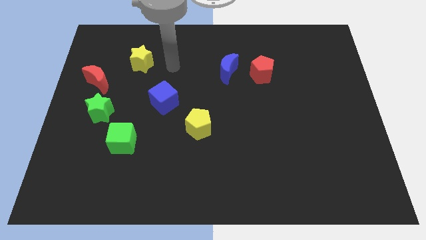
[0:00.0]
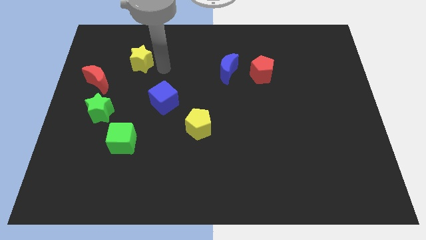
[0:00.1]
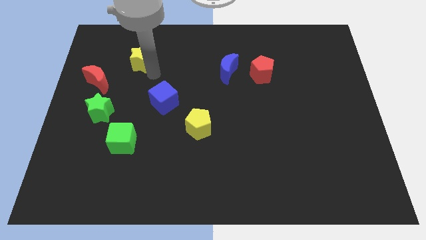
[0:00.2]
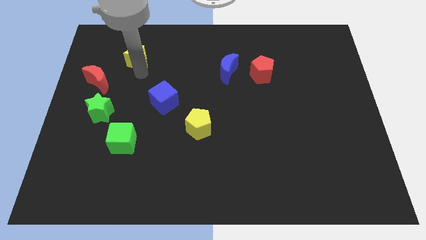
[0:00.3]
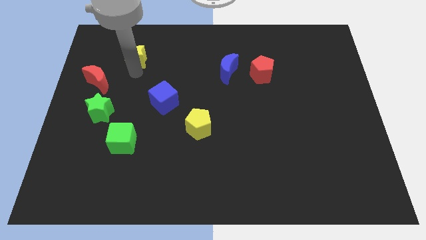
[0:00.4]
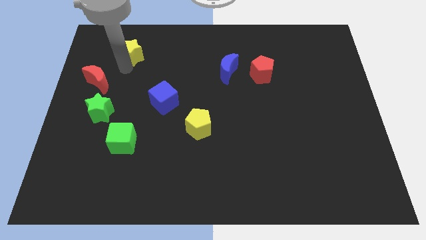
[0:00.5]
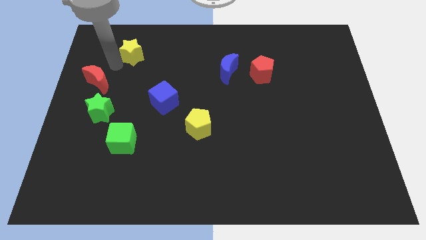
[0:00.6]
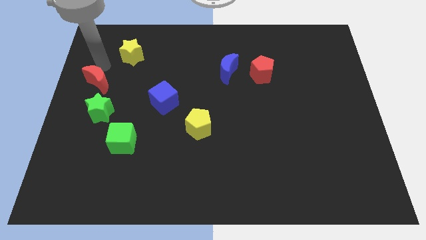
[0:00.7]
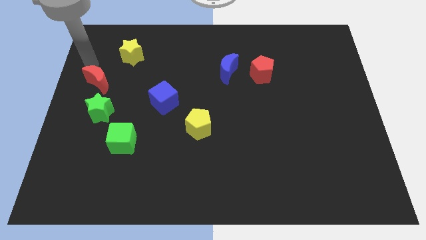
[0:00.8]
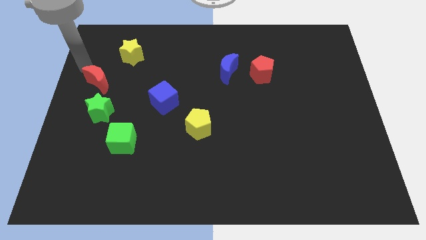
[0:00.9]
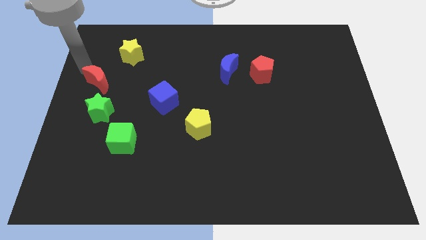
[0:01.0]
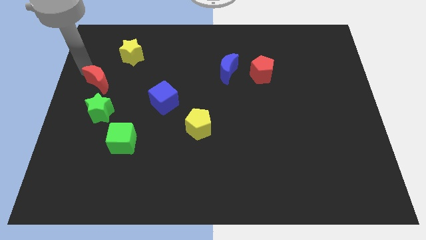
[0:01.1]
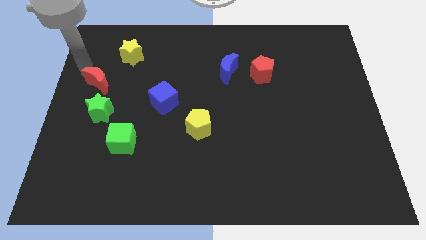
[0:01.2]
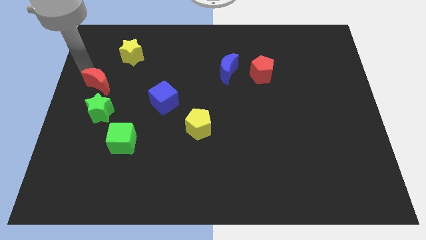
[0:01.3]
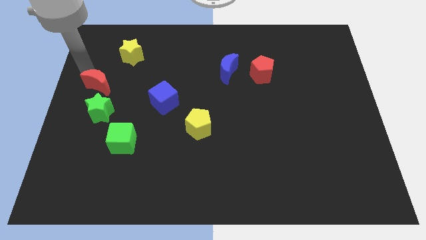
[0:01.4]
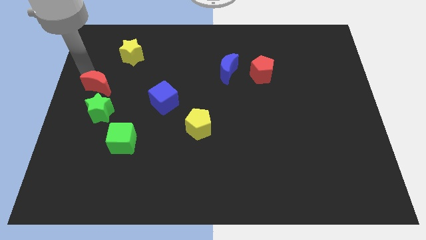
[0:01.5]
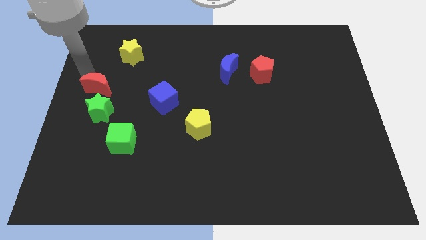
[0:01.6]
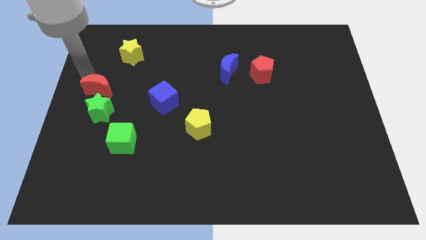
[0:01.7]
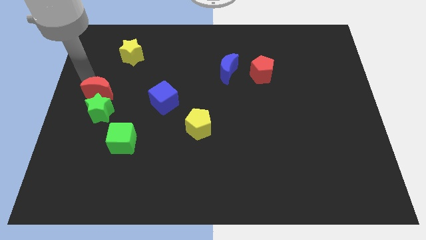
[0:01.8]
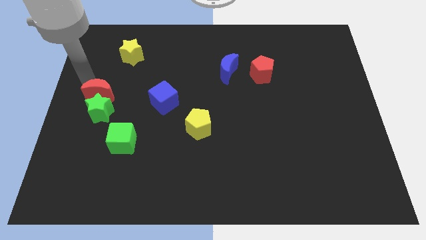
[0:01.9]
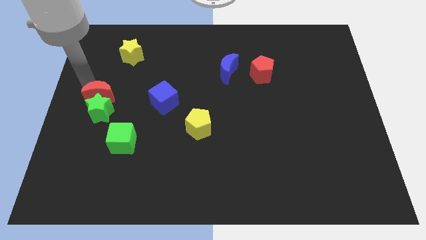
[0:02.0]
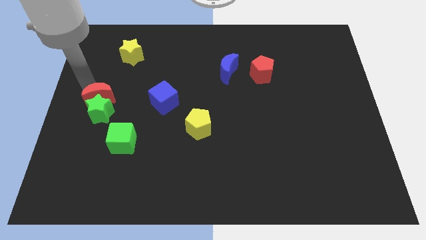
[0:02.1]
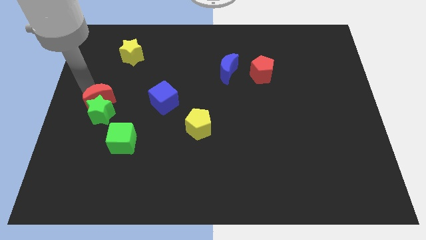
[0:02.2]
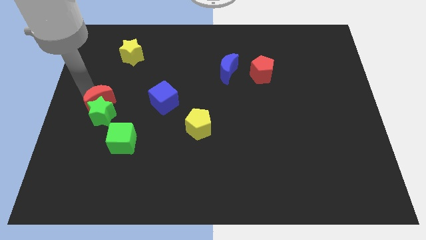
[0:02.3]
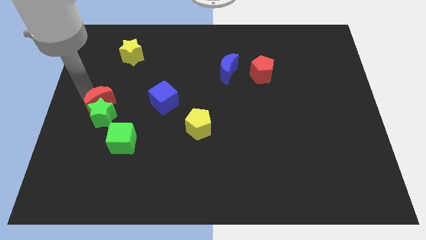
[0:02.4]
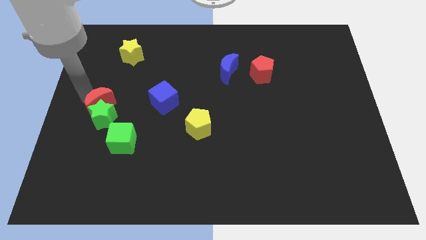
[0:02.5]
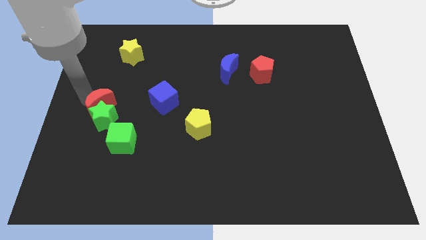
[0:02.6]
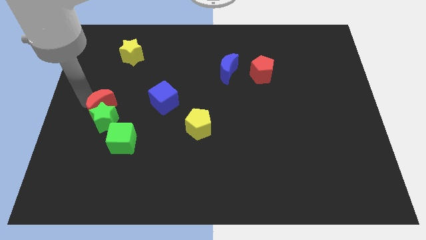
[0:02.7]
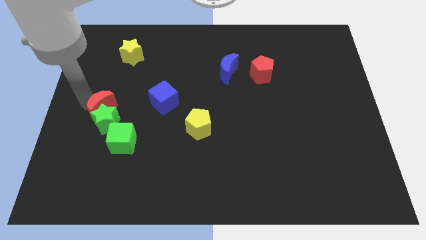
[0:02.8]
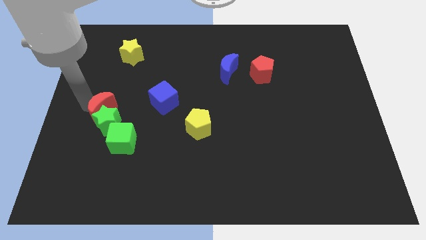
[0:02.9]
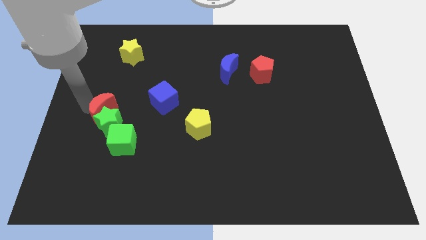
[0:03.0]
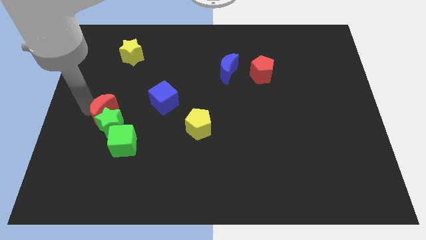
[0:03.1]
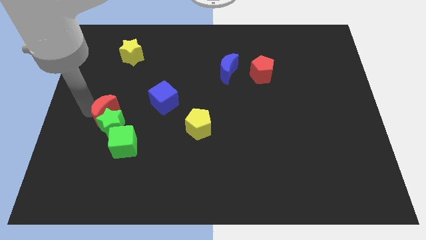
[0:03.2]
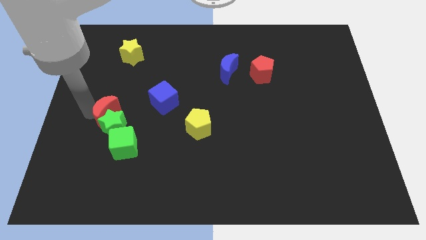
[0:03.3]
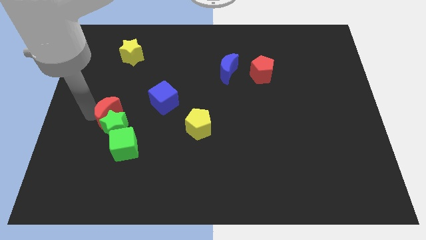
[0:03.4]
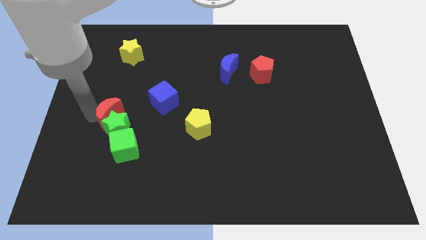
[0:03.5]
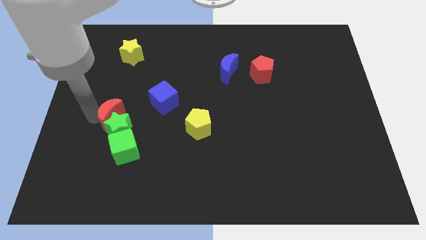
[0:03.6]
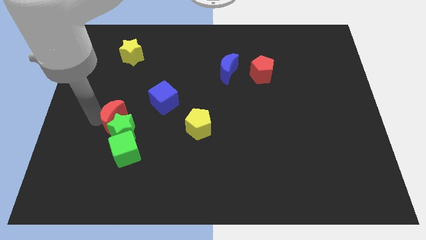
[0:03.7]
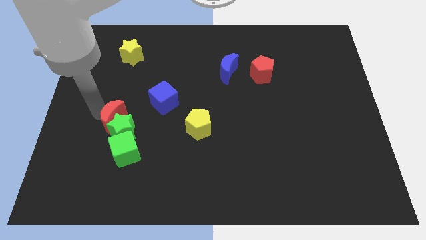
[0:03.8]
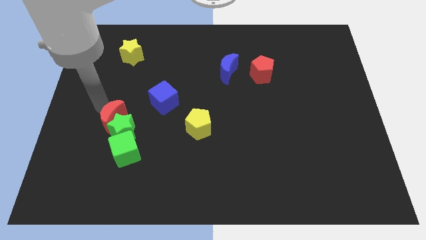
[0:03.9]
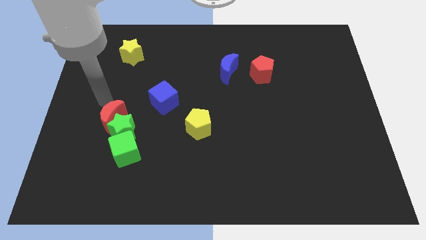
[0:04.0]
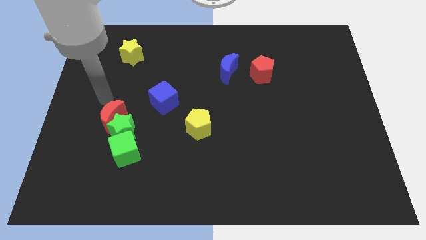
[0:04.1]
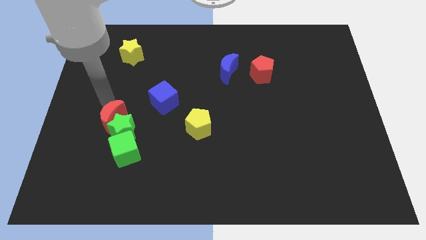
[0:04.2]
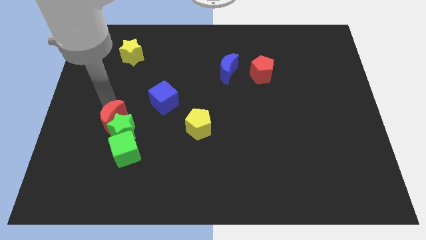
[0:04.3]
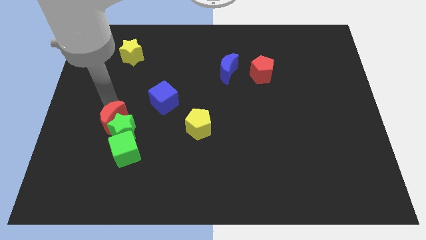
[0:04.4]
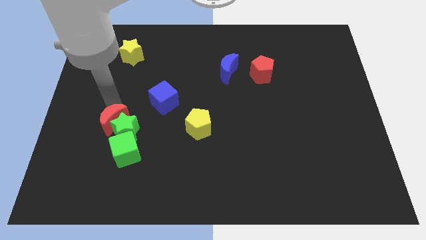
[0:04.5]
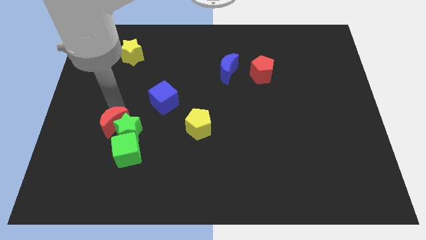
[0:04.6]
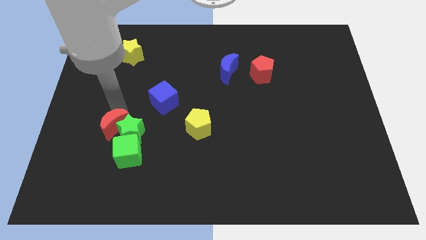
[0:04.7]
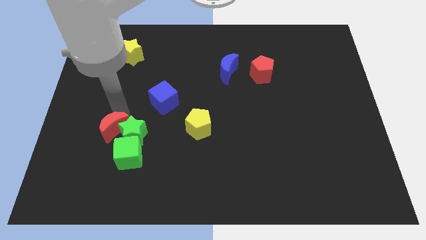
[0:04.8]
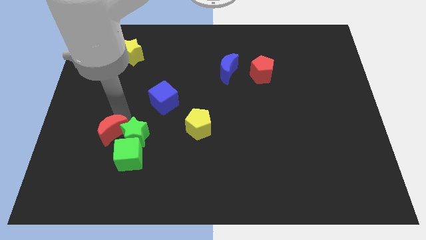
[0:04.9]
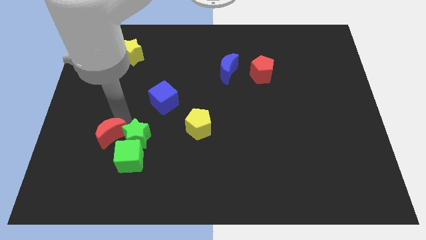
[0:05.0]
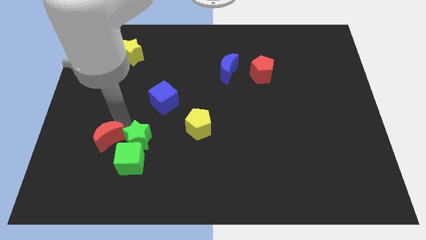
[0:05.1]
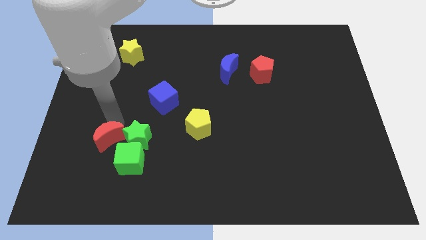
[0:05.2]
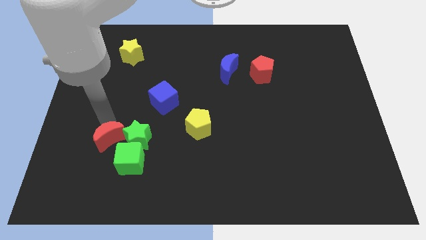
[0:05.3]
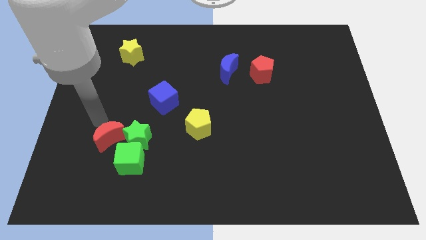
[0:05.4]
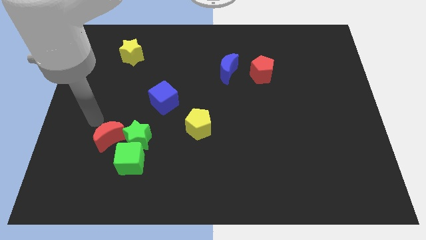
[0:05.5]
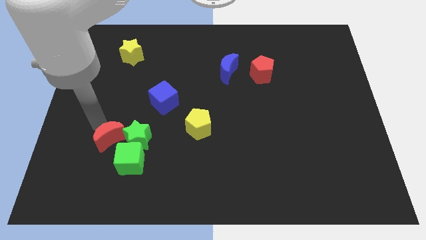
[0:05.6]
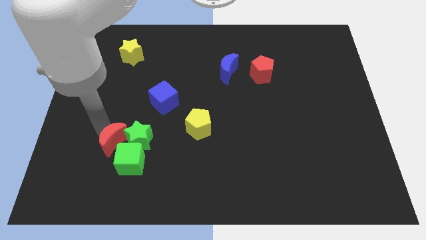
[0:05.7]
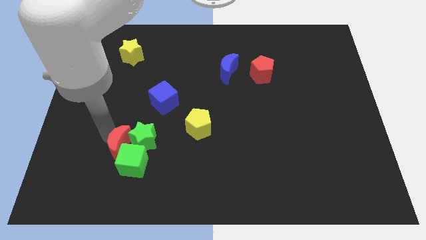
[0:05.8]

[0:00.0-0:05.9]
slide the red moon close to the green cube

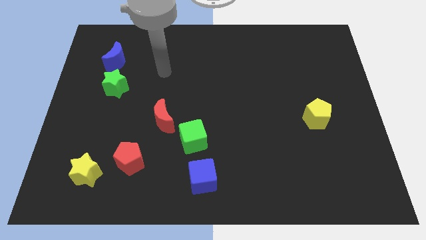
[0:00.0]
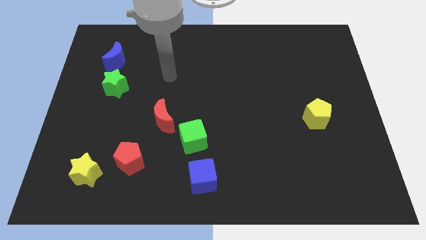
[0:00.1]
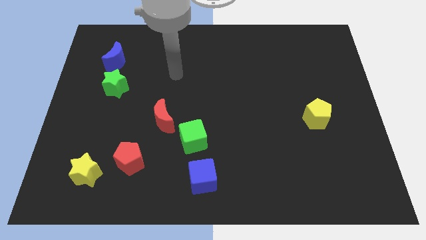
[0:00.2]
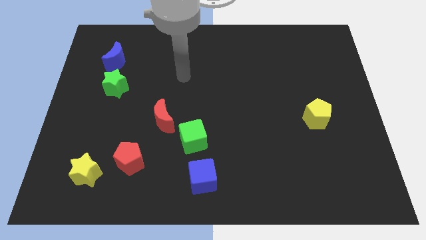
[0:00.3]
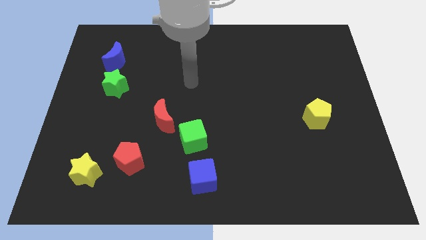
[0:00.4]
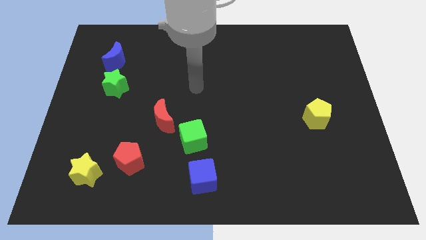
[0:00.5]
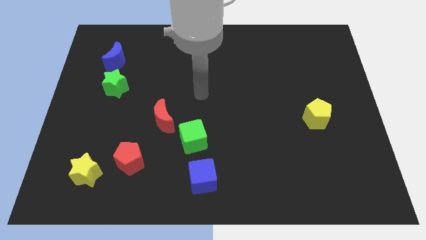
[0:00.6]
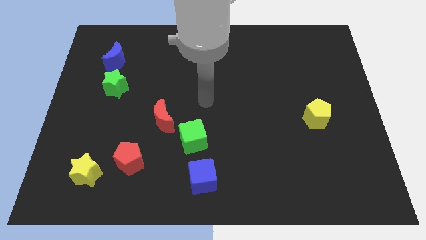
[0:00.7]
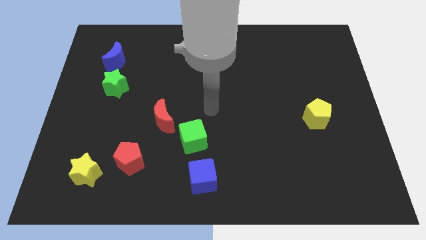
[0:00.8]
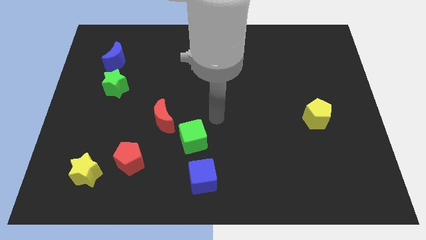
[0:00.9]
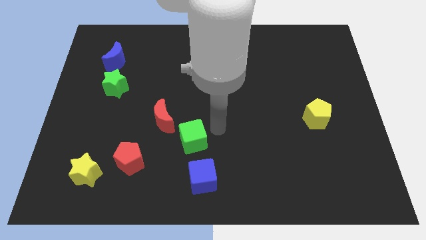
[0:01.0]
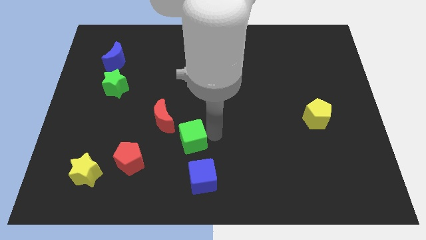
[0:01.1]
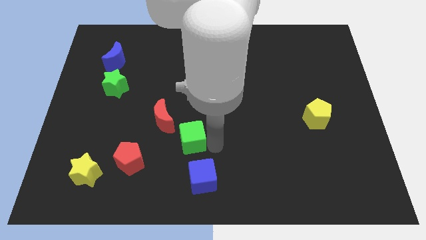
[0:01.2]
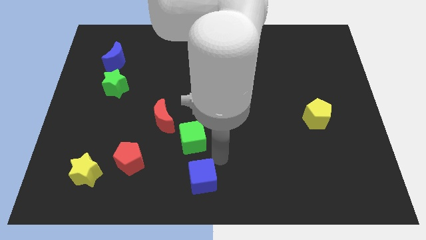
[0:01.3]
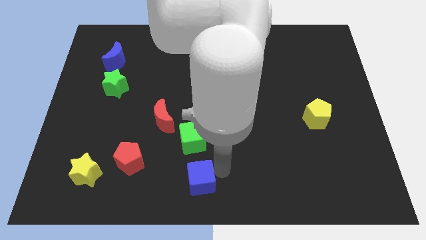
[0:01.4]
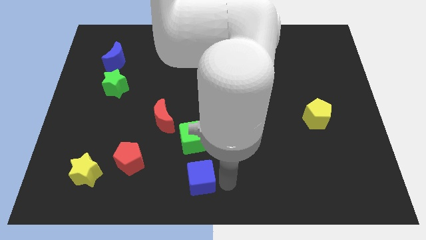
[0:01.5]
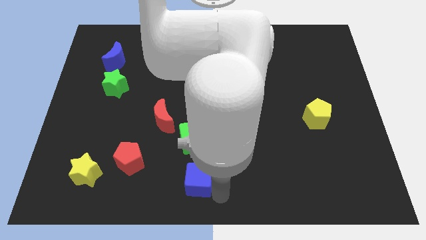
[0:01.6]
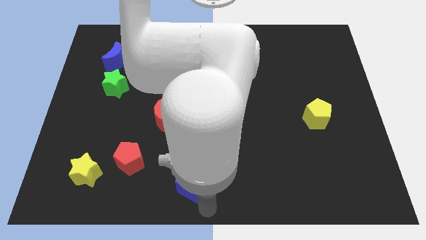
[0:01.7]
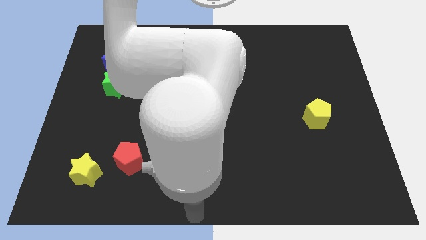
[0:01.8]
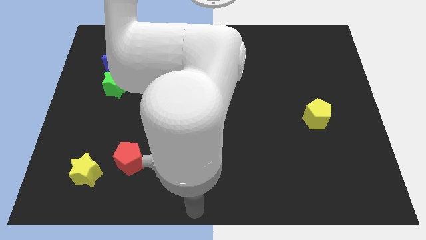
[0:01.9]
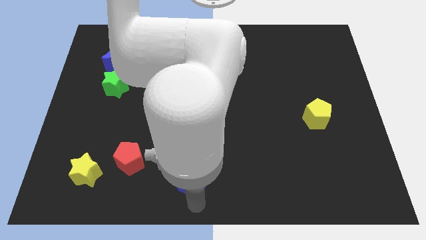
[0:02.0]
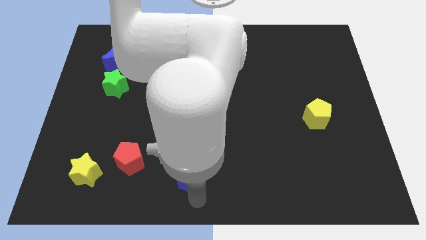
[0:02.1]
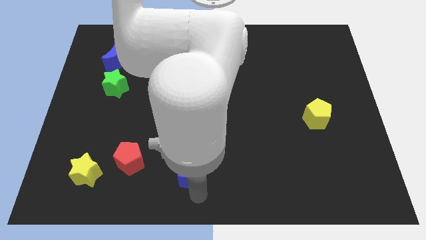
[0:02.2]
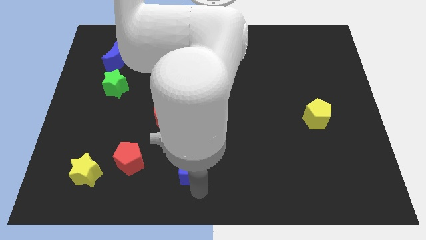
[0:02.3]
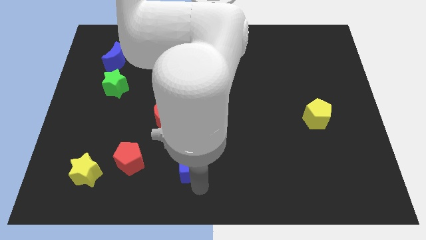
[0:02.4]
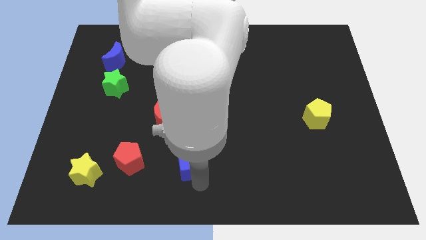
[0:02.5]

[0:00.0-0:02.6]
move the blue cube towards the green cube
